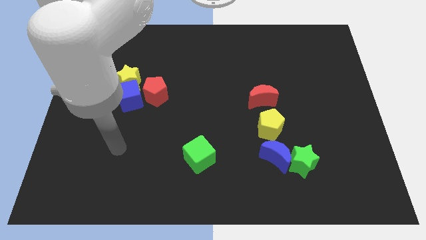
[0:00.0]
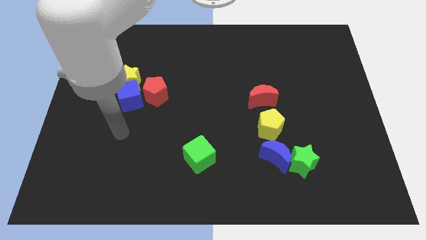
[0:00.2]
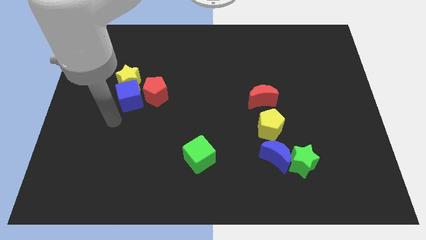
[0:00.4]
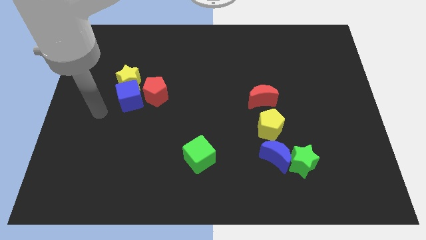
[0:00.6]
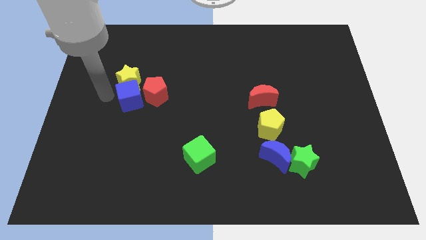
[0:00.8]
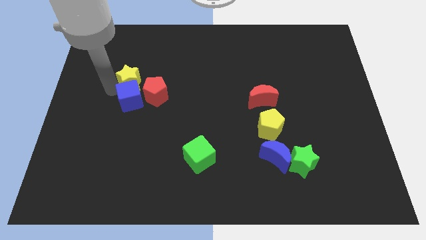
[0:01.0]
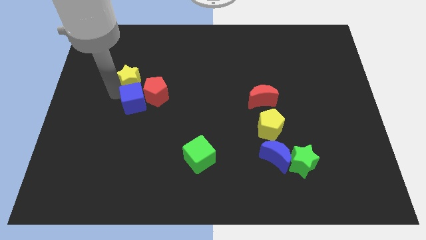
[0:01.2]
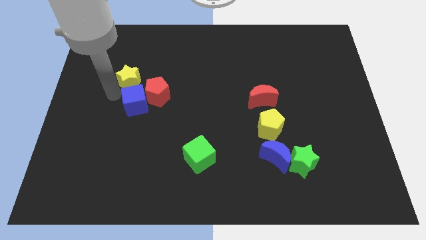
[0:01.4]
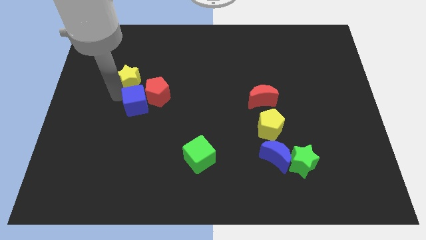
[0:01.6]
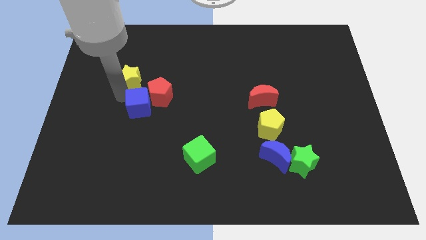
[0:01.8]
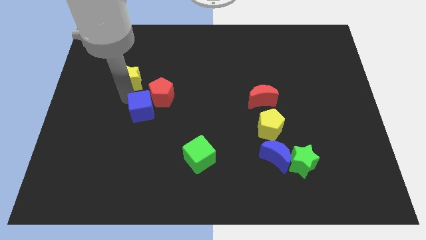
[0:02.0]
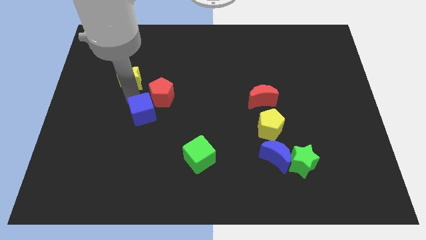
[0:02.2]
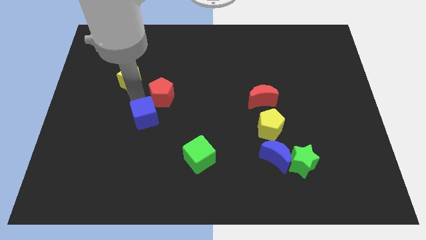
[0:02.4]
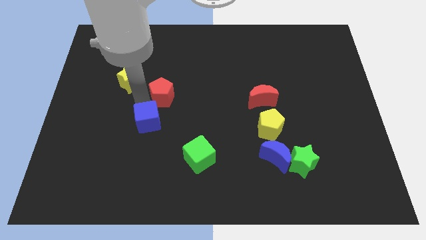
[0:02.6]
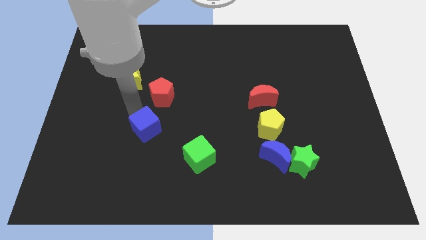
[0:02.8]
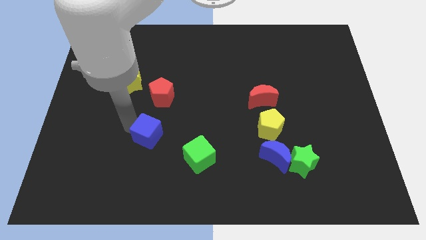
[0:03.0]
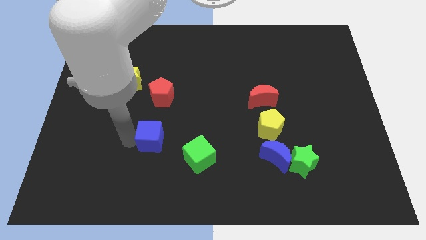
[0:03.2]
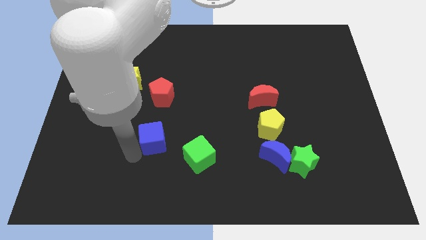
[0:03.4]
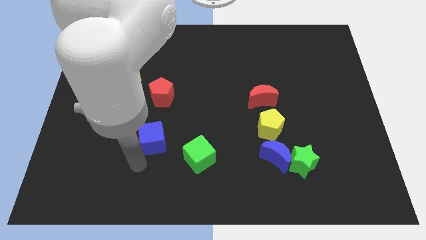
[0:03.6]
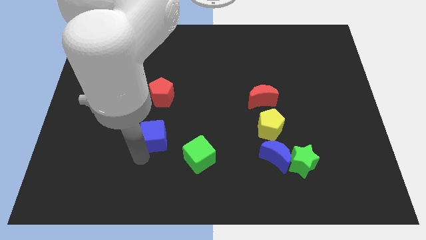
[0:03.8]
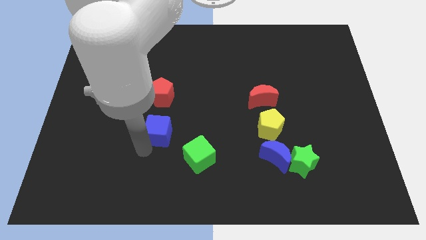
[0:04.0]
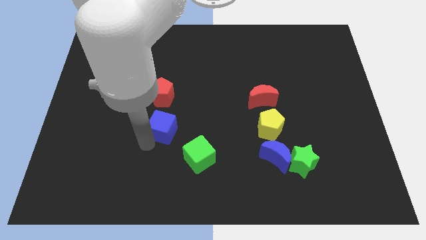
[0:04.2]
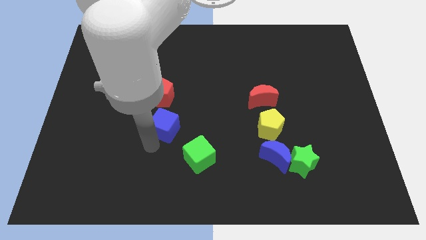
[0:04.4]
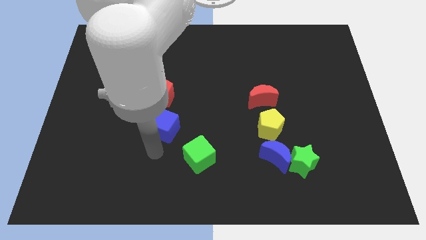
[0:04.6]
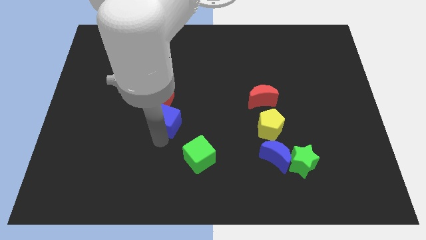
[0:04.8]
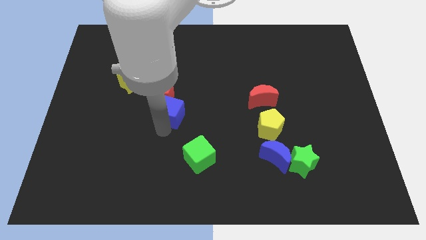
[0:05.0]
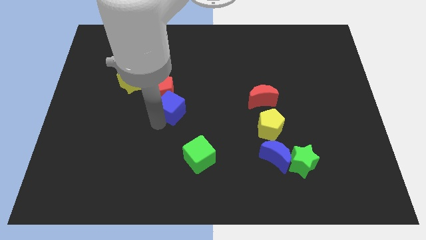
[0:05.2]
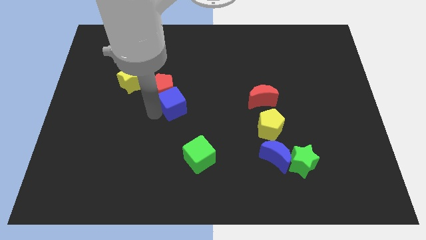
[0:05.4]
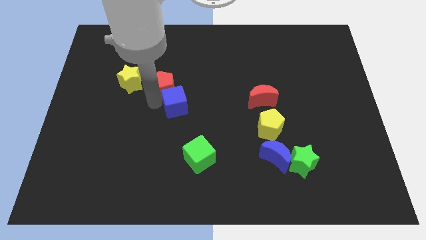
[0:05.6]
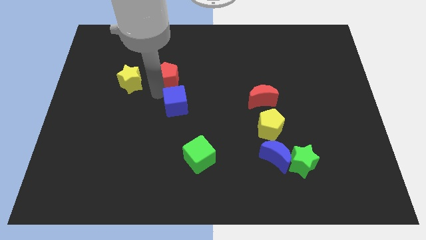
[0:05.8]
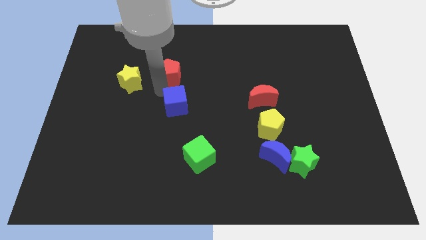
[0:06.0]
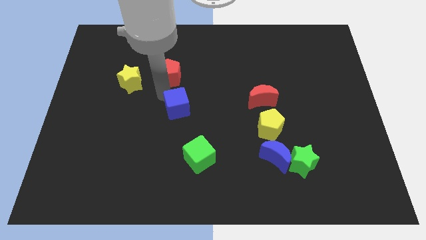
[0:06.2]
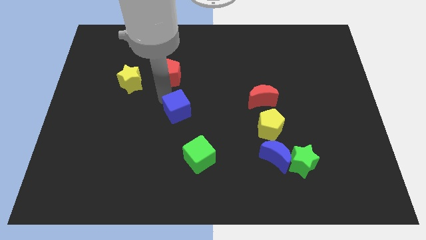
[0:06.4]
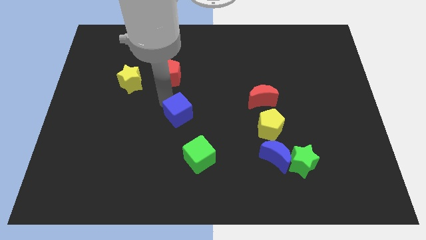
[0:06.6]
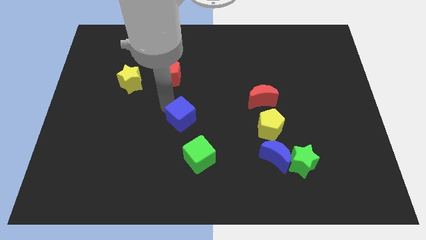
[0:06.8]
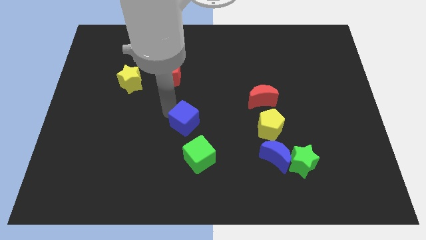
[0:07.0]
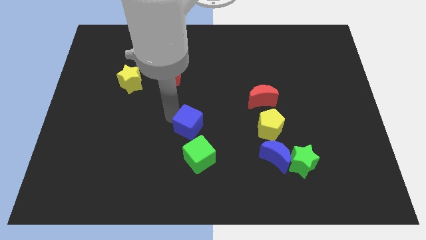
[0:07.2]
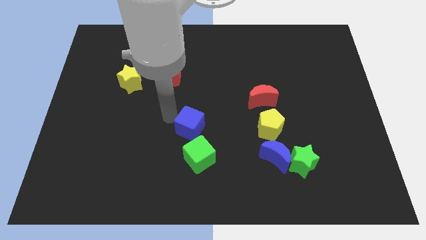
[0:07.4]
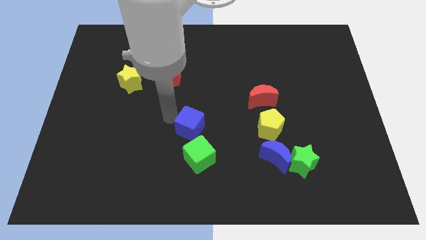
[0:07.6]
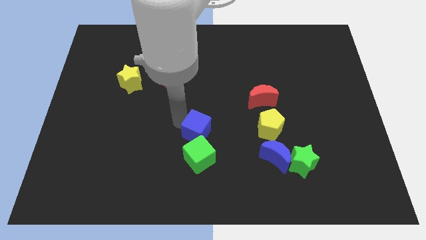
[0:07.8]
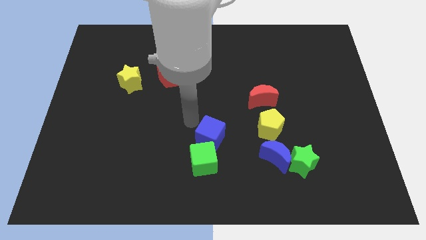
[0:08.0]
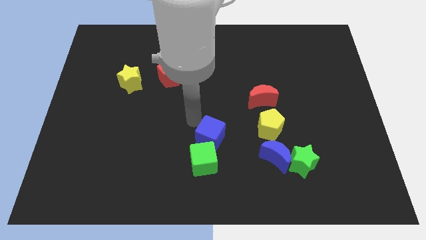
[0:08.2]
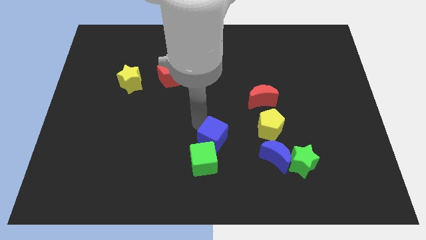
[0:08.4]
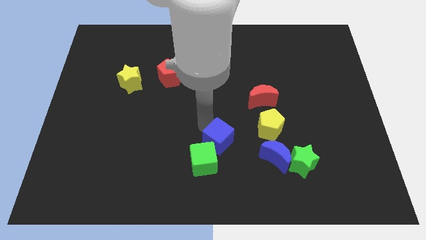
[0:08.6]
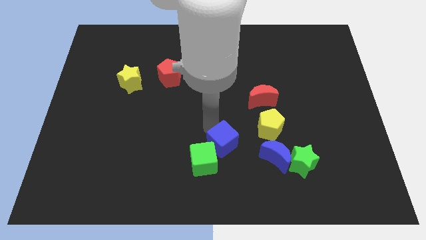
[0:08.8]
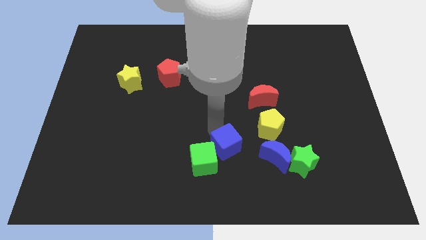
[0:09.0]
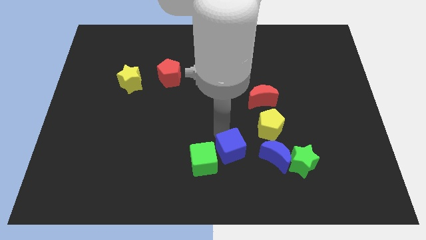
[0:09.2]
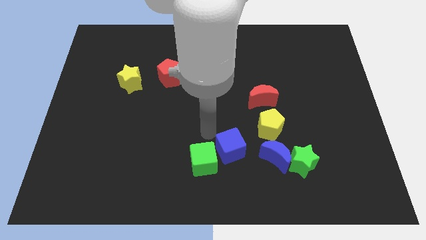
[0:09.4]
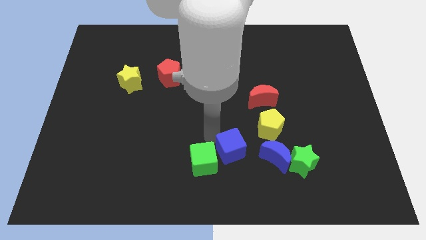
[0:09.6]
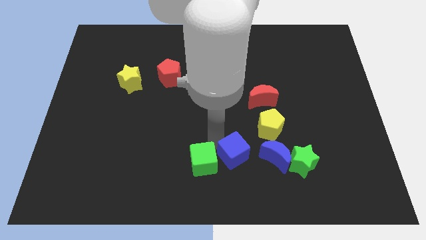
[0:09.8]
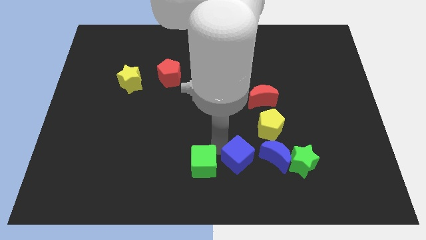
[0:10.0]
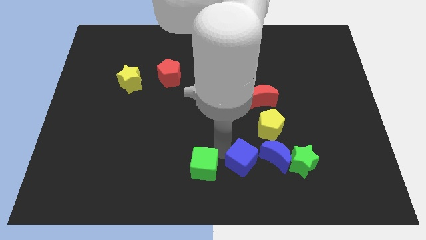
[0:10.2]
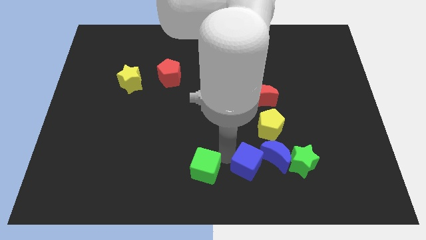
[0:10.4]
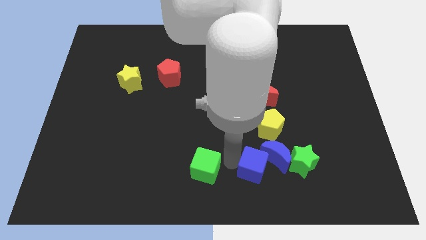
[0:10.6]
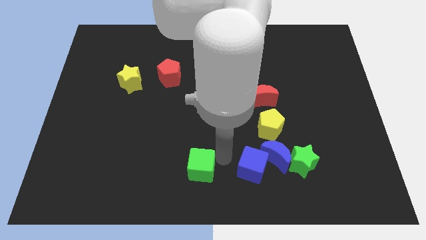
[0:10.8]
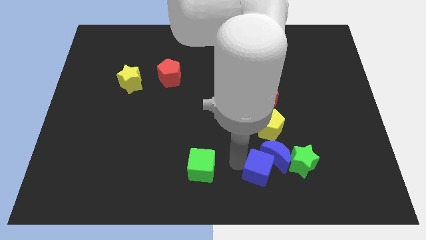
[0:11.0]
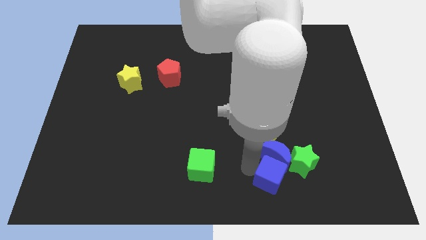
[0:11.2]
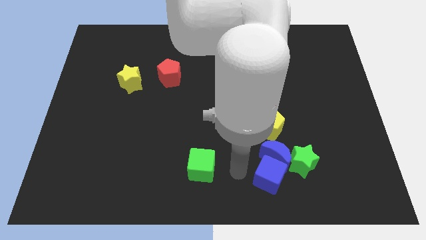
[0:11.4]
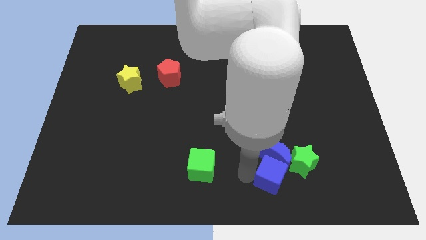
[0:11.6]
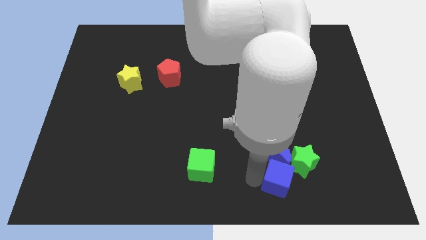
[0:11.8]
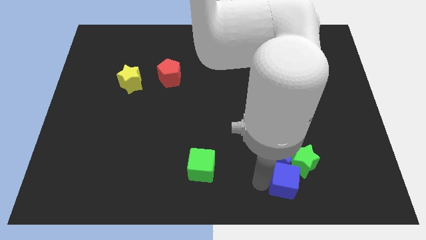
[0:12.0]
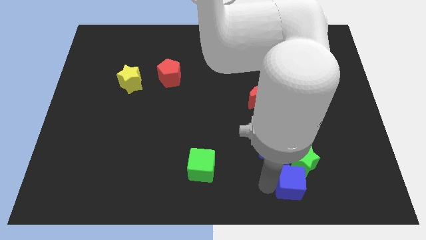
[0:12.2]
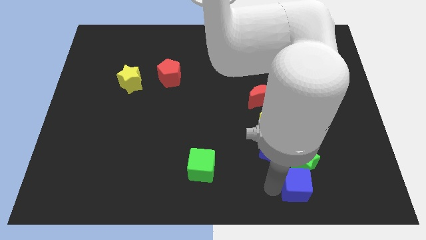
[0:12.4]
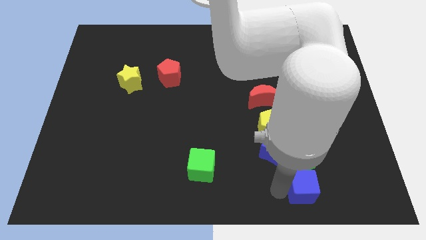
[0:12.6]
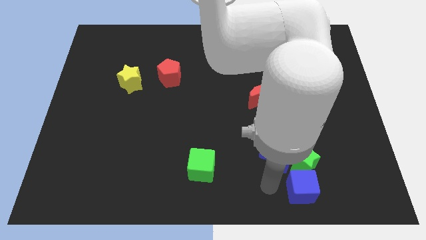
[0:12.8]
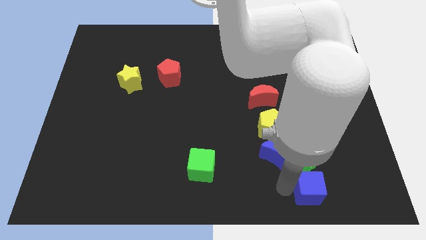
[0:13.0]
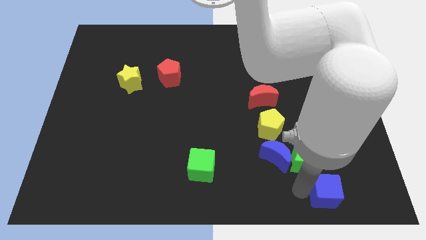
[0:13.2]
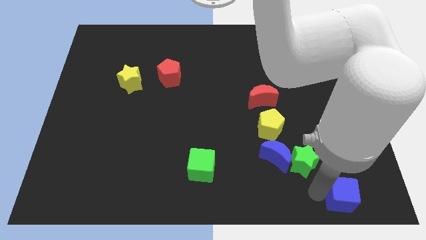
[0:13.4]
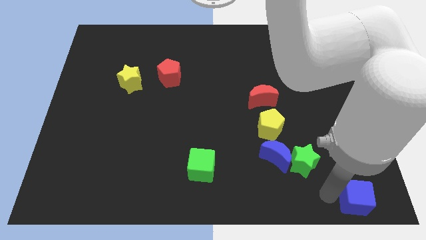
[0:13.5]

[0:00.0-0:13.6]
put the blue cube to the bottom right of the board
